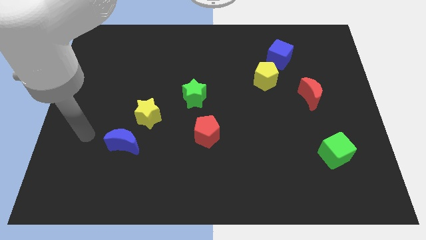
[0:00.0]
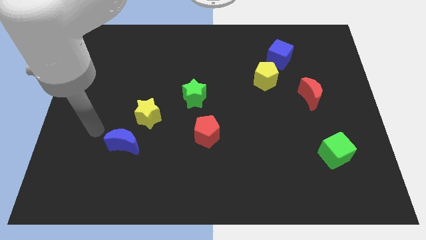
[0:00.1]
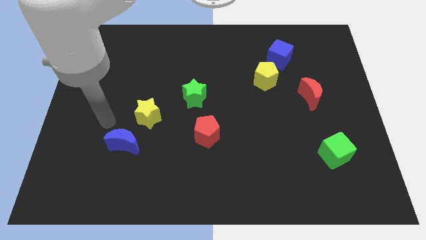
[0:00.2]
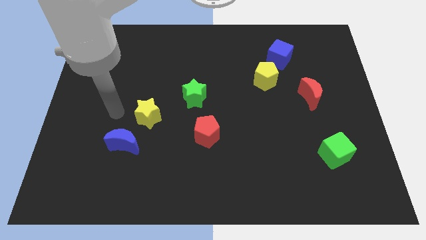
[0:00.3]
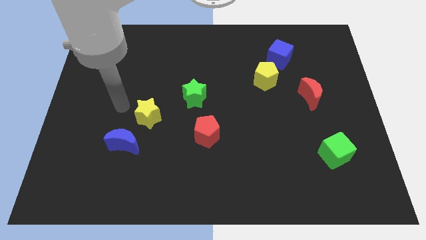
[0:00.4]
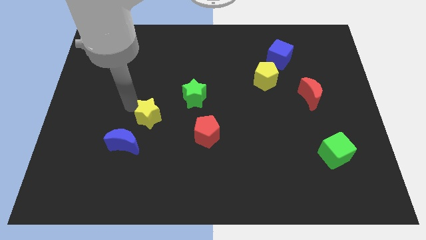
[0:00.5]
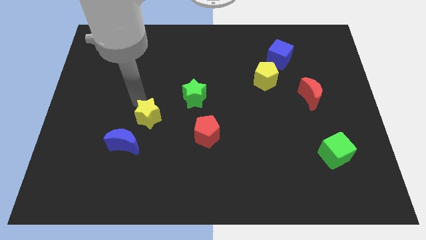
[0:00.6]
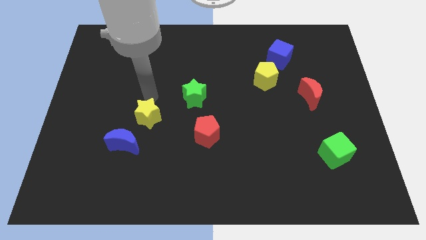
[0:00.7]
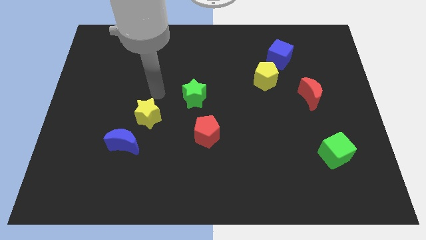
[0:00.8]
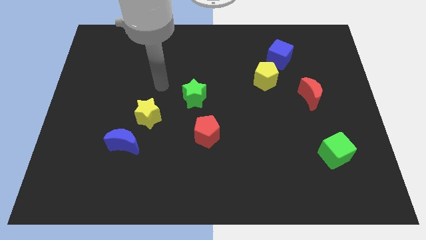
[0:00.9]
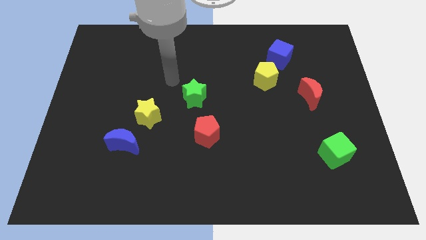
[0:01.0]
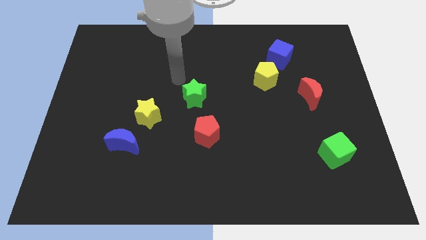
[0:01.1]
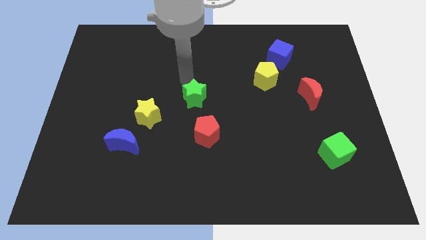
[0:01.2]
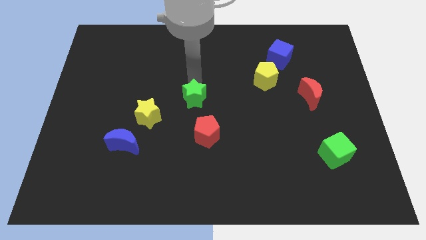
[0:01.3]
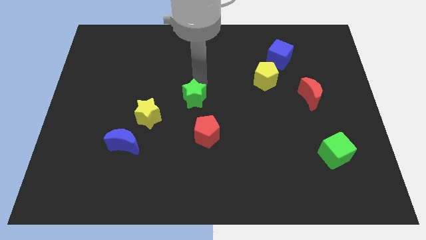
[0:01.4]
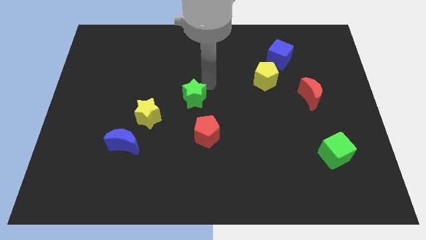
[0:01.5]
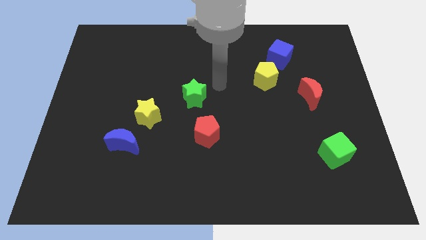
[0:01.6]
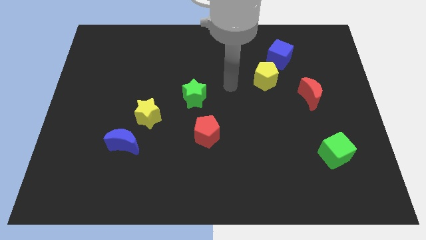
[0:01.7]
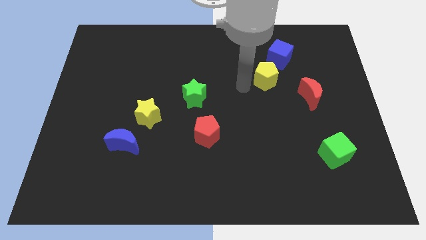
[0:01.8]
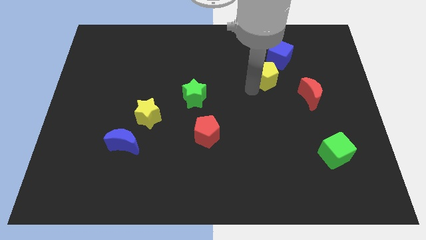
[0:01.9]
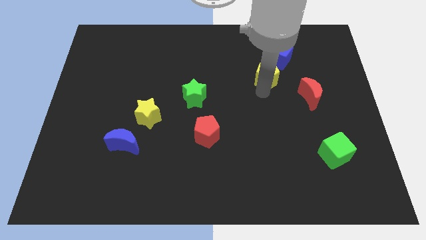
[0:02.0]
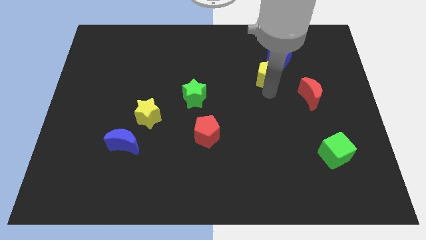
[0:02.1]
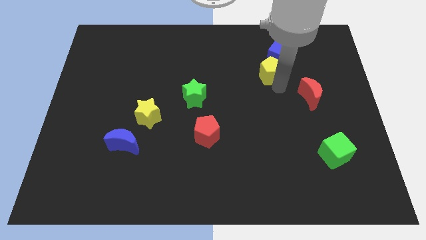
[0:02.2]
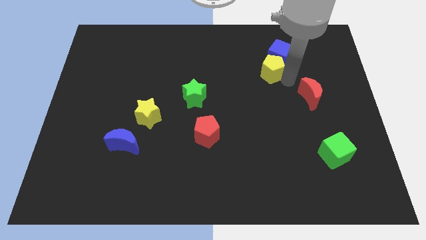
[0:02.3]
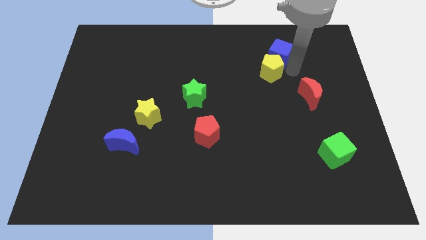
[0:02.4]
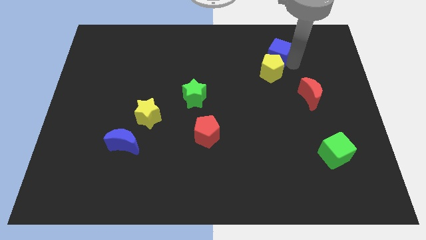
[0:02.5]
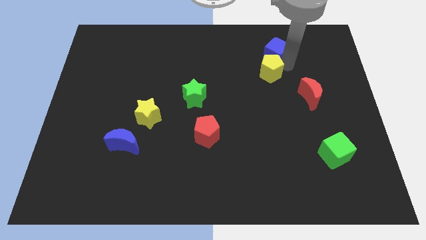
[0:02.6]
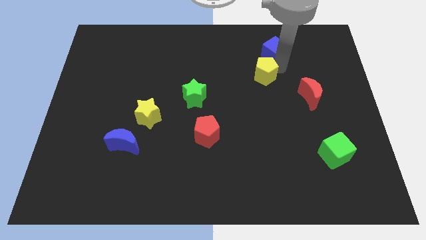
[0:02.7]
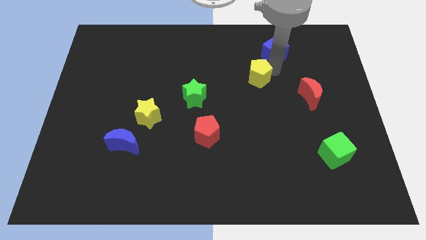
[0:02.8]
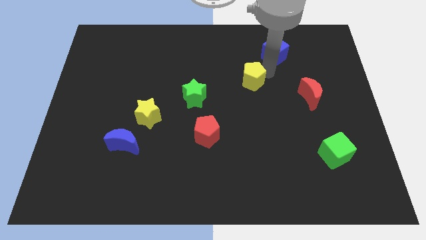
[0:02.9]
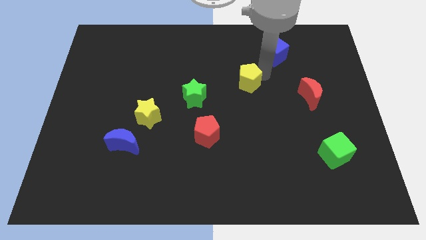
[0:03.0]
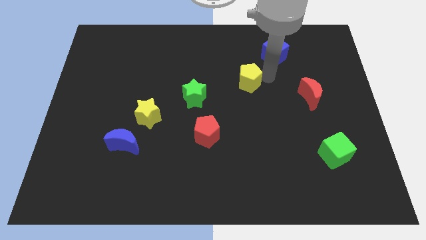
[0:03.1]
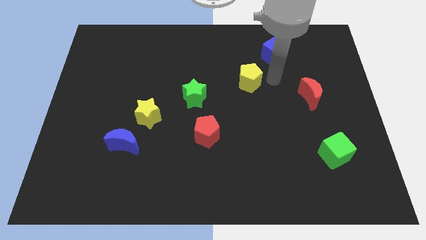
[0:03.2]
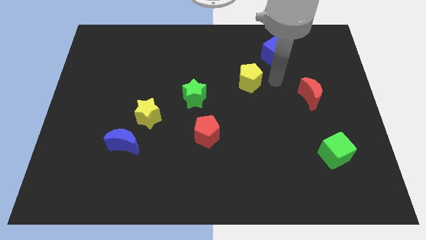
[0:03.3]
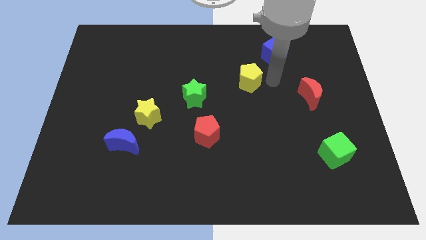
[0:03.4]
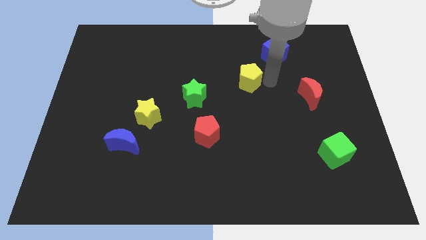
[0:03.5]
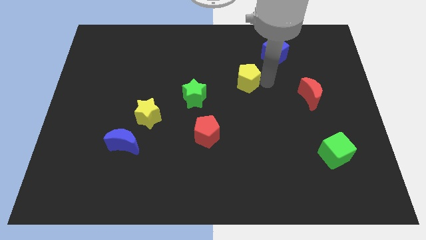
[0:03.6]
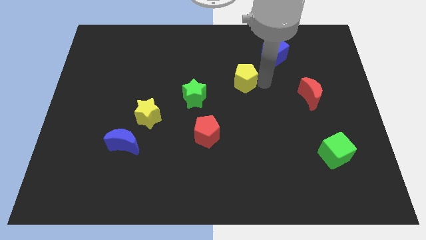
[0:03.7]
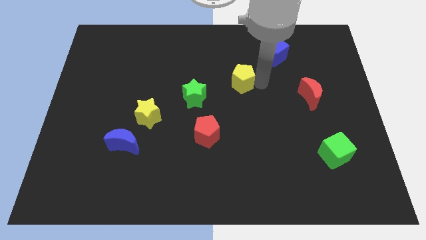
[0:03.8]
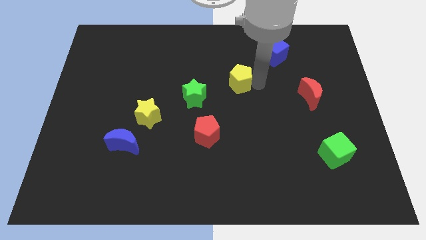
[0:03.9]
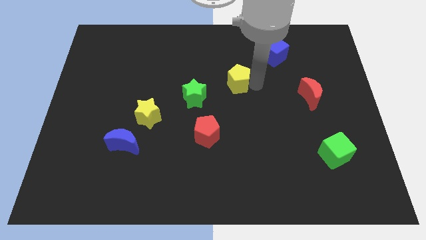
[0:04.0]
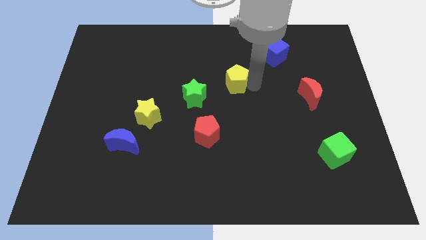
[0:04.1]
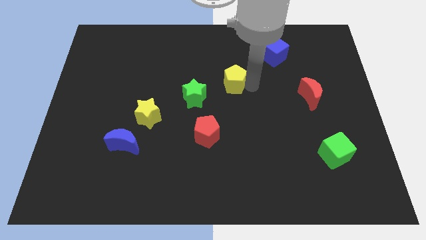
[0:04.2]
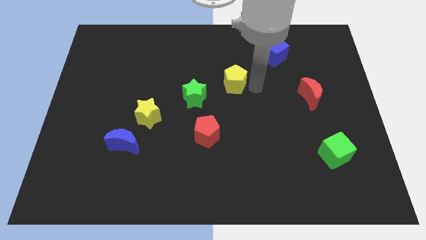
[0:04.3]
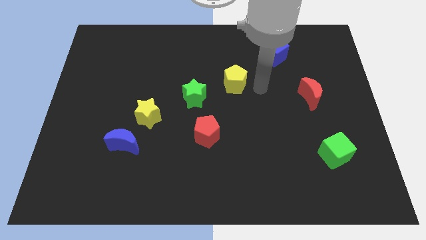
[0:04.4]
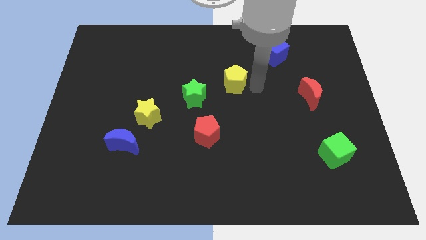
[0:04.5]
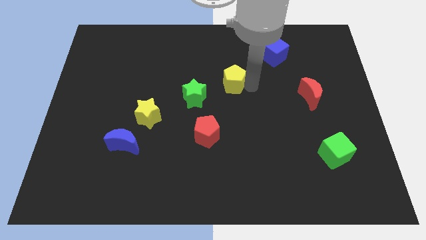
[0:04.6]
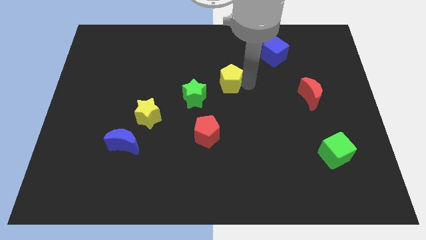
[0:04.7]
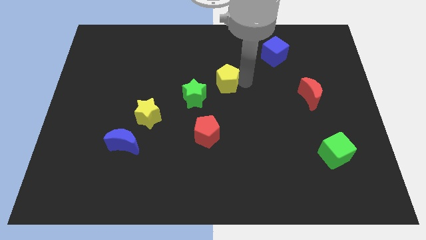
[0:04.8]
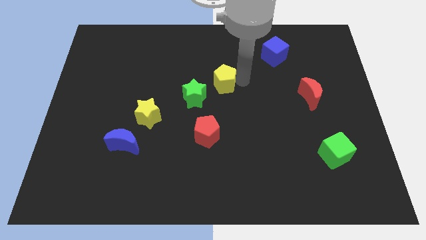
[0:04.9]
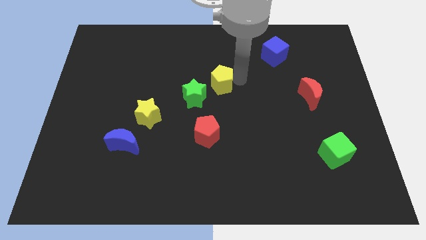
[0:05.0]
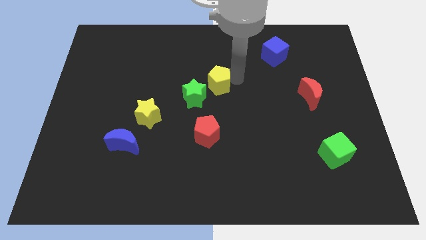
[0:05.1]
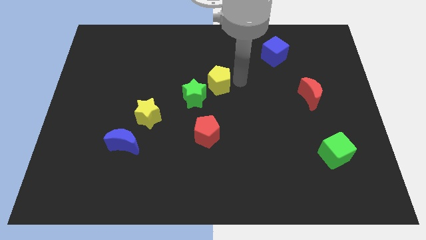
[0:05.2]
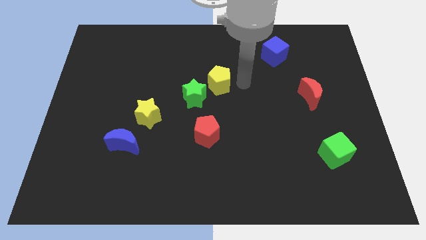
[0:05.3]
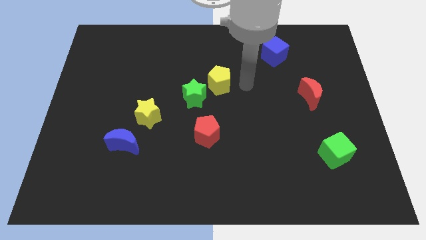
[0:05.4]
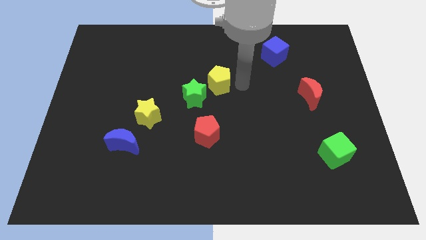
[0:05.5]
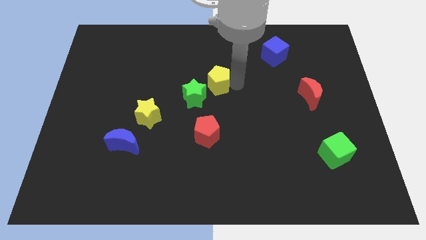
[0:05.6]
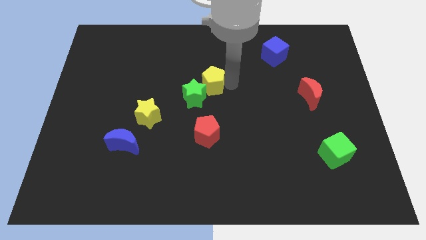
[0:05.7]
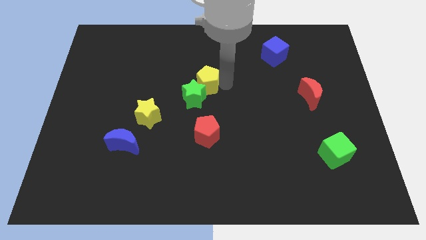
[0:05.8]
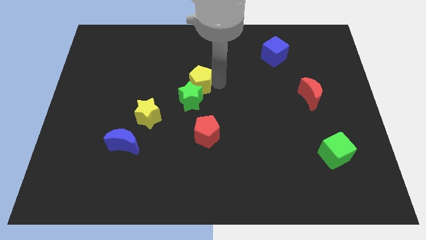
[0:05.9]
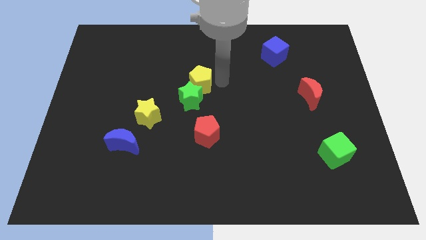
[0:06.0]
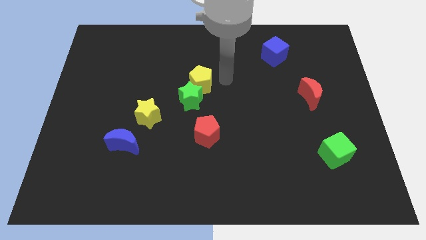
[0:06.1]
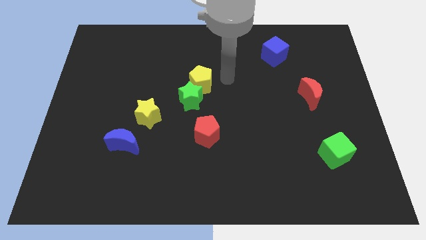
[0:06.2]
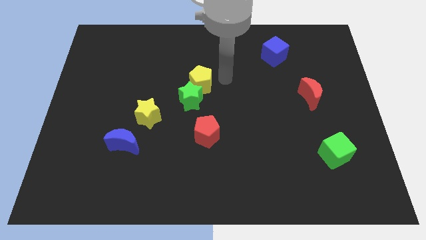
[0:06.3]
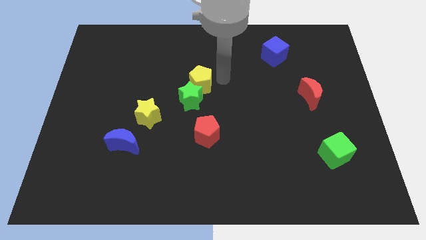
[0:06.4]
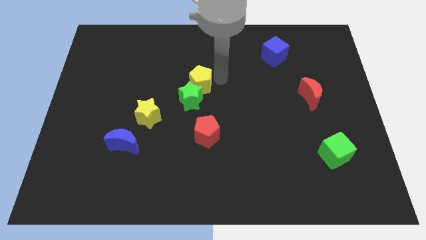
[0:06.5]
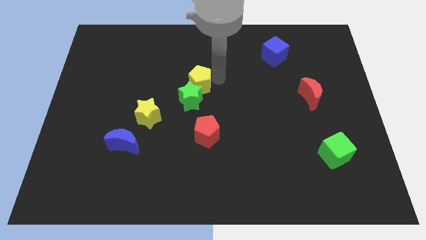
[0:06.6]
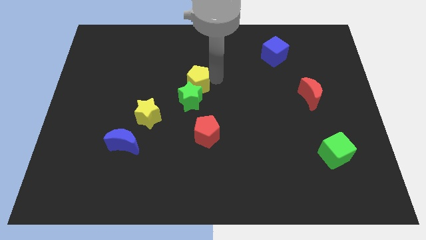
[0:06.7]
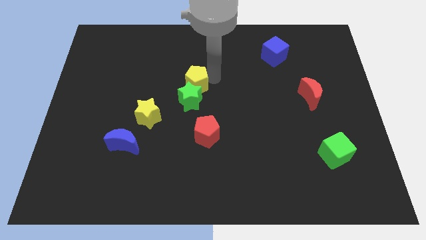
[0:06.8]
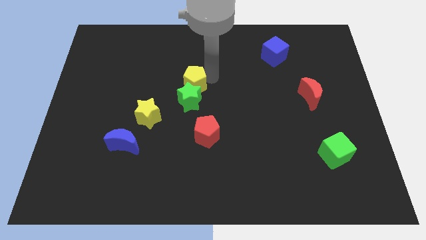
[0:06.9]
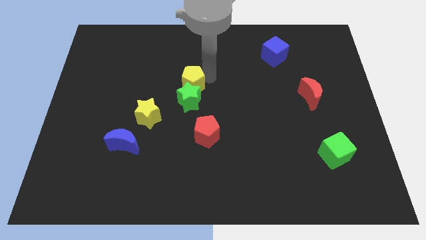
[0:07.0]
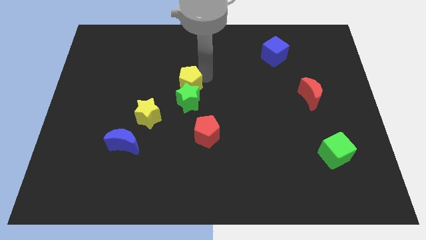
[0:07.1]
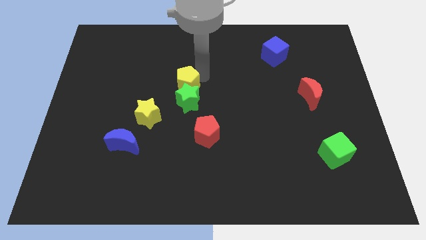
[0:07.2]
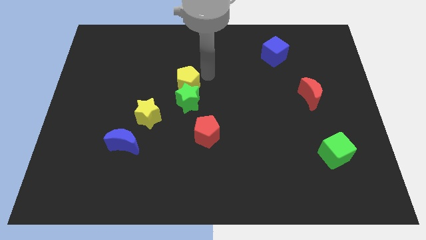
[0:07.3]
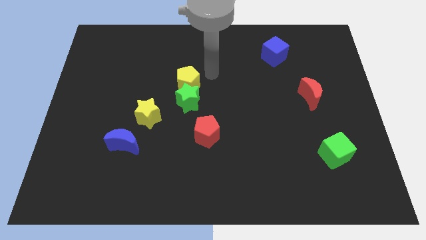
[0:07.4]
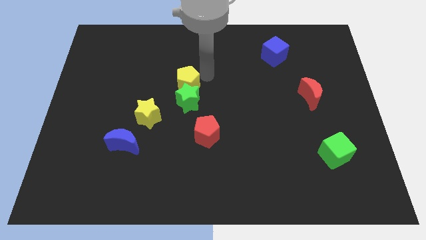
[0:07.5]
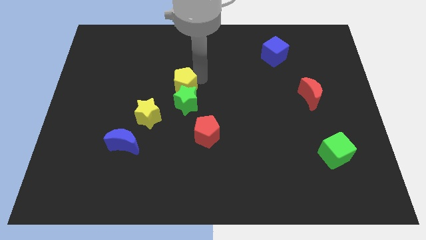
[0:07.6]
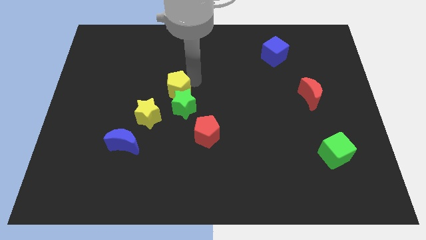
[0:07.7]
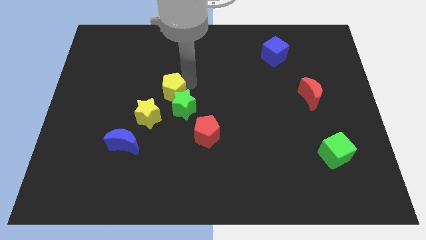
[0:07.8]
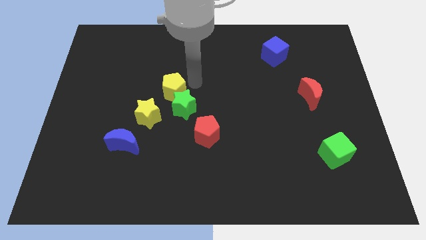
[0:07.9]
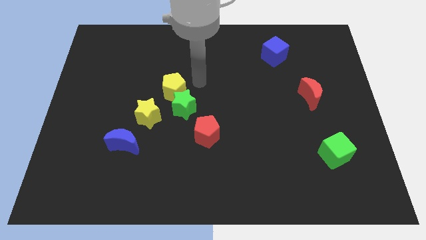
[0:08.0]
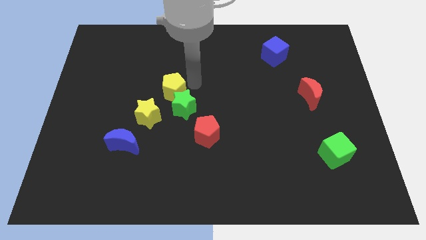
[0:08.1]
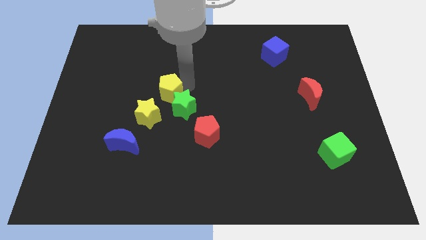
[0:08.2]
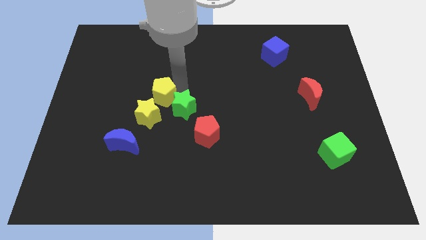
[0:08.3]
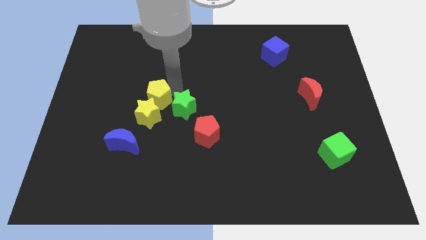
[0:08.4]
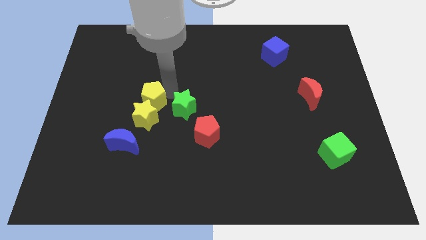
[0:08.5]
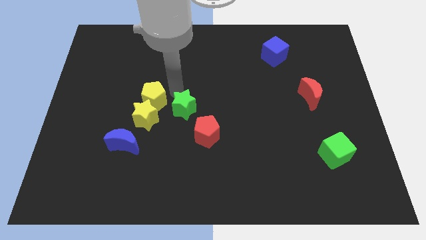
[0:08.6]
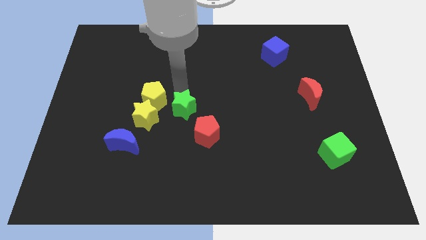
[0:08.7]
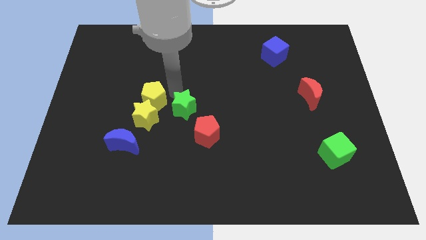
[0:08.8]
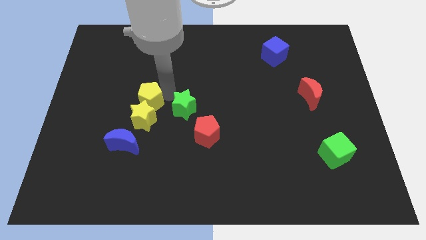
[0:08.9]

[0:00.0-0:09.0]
move the yellow pentagon above the blue moon
